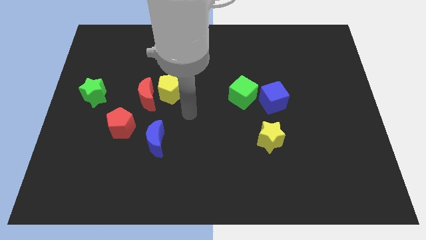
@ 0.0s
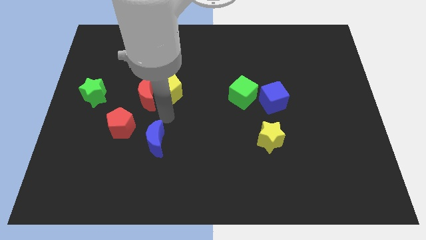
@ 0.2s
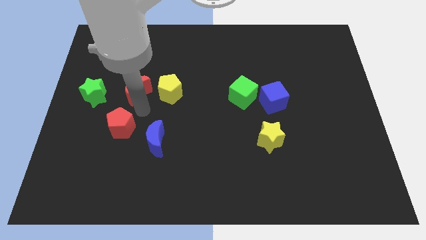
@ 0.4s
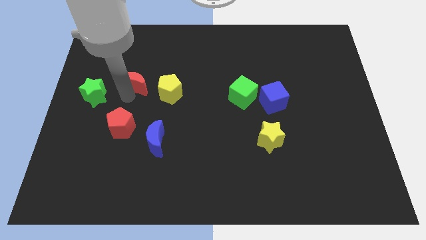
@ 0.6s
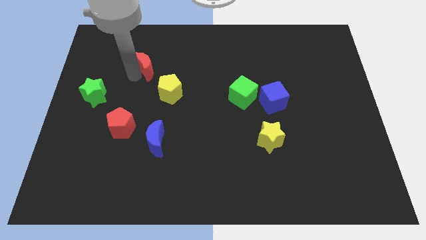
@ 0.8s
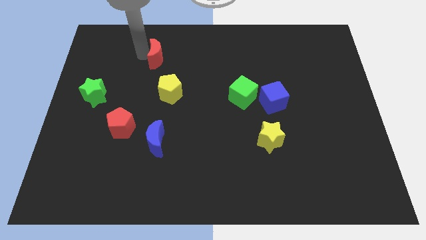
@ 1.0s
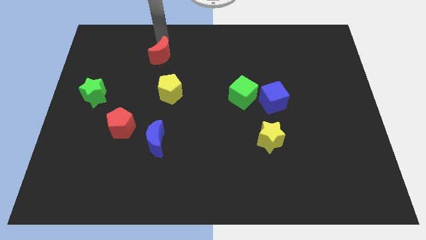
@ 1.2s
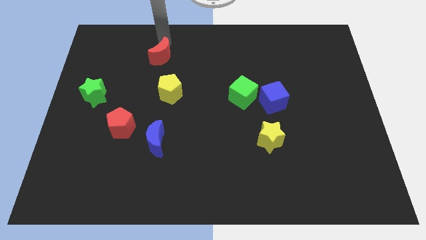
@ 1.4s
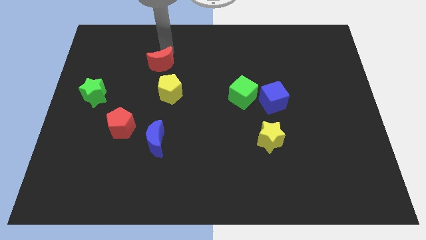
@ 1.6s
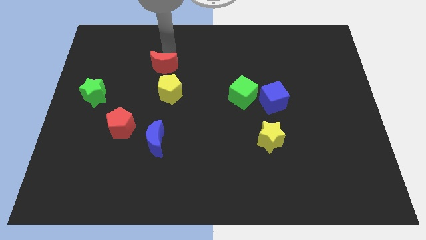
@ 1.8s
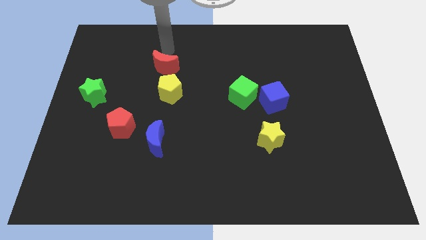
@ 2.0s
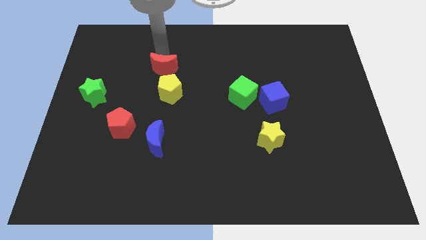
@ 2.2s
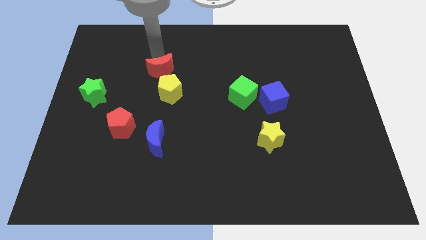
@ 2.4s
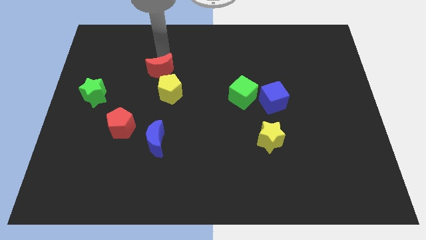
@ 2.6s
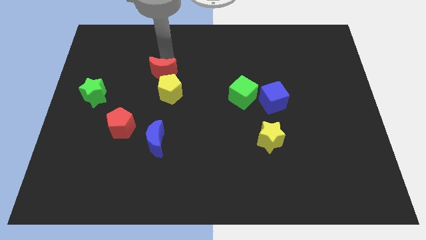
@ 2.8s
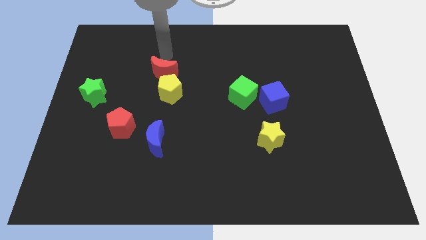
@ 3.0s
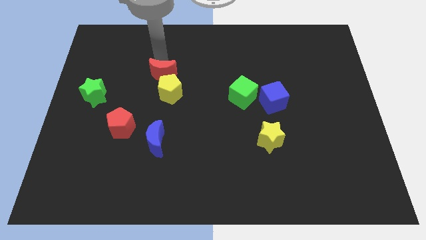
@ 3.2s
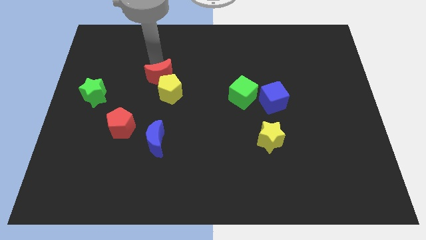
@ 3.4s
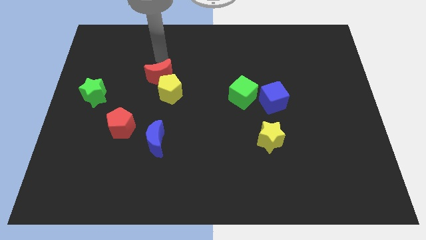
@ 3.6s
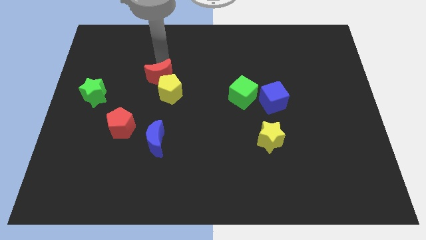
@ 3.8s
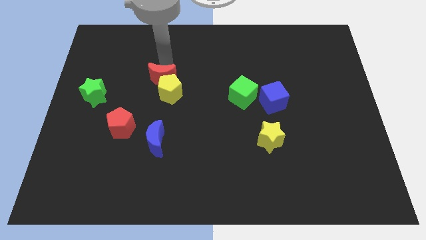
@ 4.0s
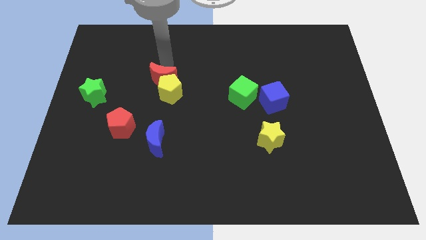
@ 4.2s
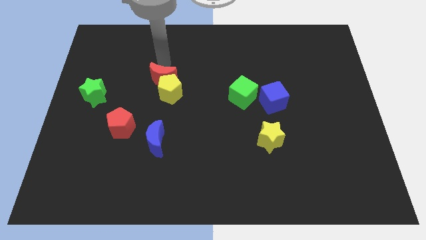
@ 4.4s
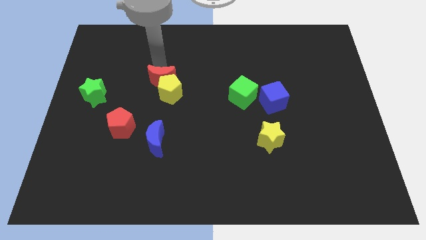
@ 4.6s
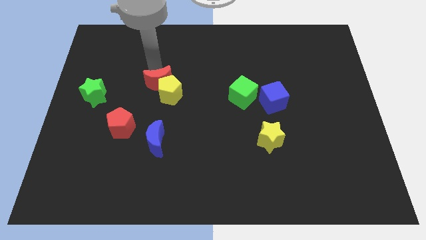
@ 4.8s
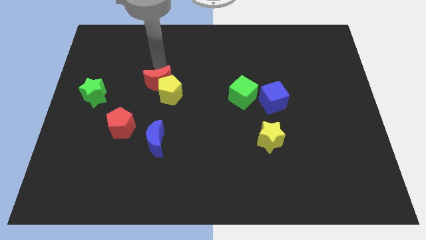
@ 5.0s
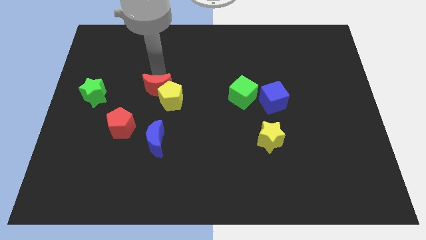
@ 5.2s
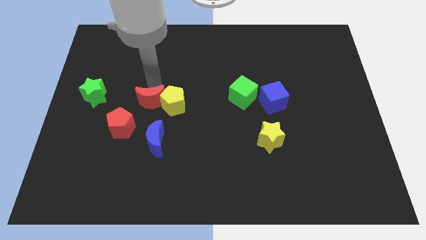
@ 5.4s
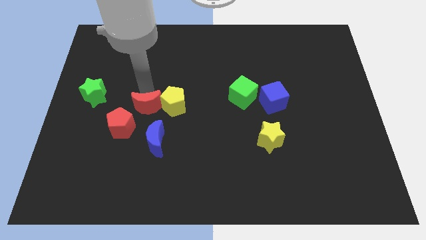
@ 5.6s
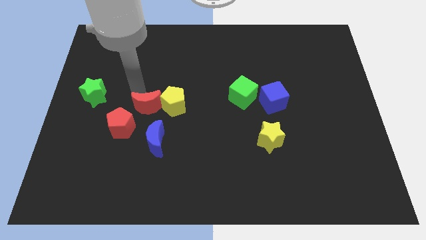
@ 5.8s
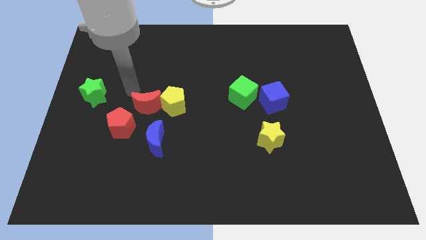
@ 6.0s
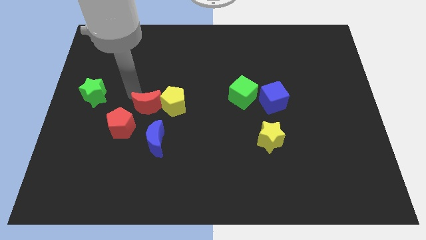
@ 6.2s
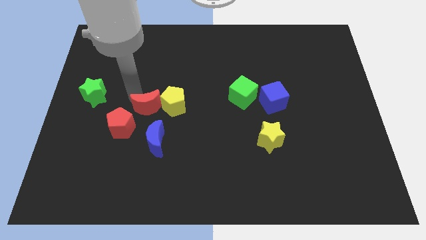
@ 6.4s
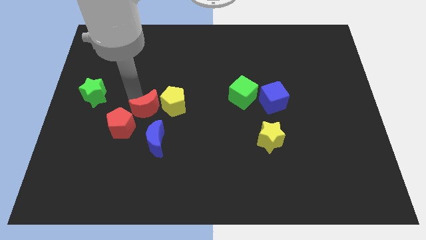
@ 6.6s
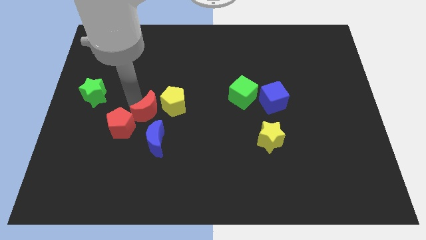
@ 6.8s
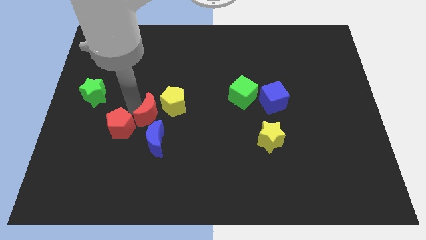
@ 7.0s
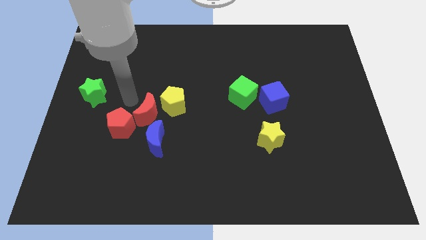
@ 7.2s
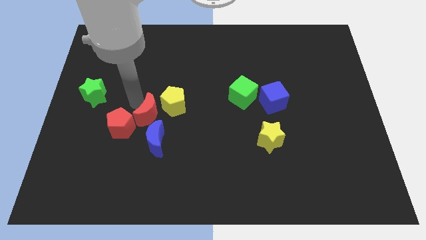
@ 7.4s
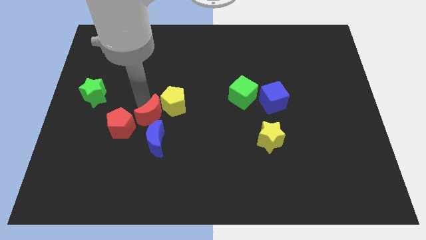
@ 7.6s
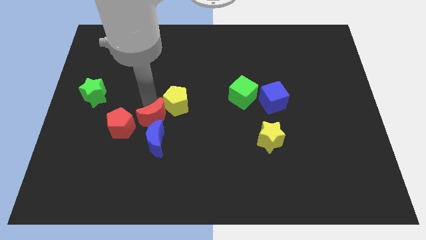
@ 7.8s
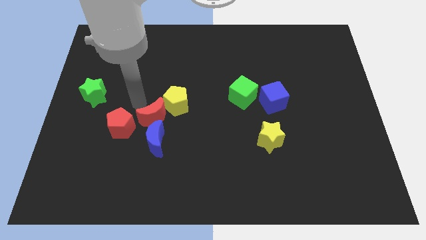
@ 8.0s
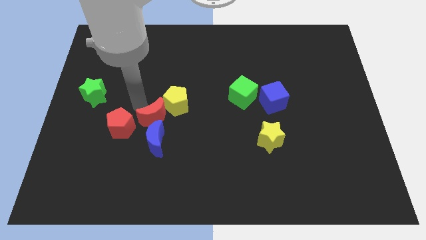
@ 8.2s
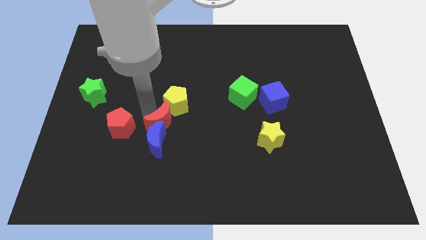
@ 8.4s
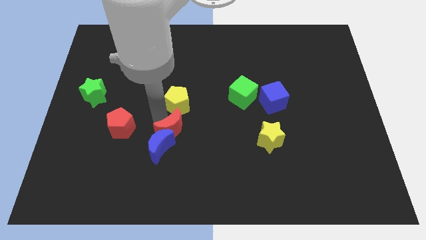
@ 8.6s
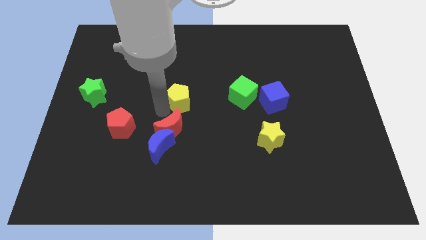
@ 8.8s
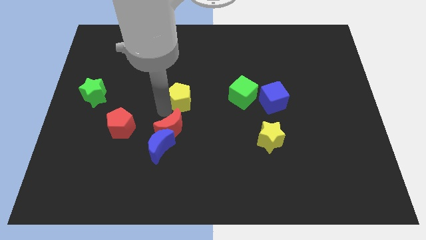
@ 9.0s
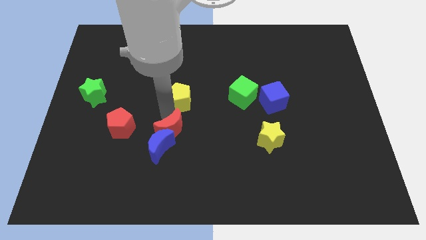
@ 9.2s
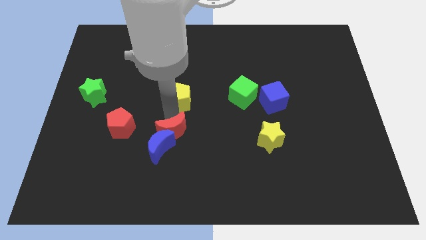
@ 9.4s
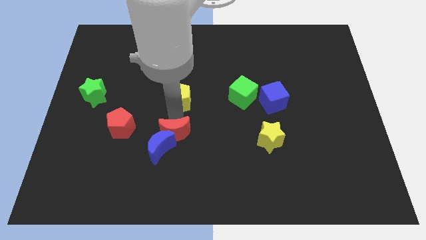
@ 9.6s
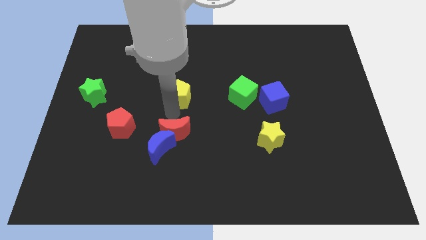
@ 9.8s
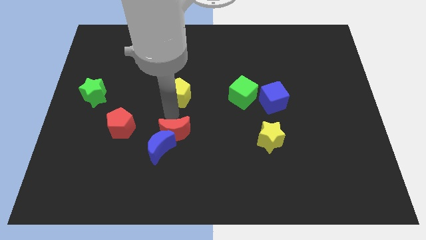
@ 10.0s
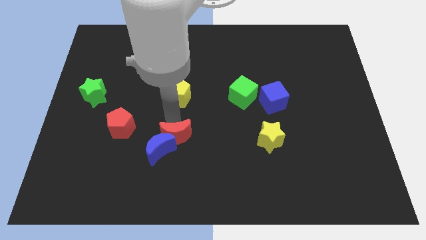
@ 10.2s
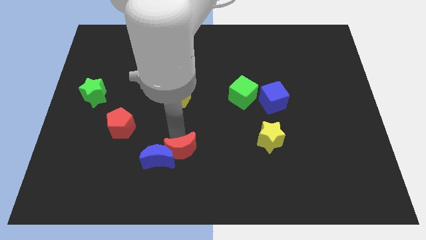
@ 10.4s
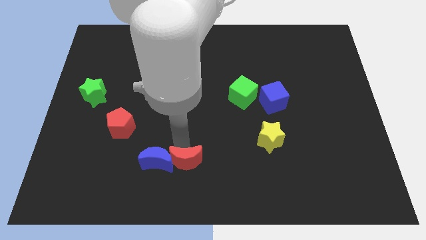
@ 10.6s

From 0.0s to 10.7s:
move the red moon to the bottom side

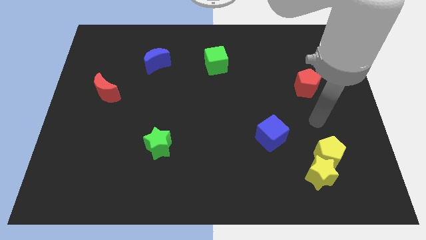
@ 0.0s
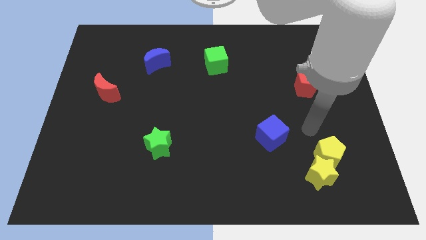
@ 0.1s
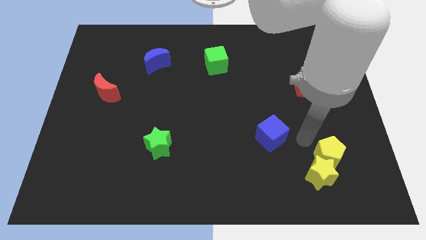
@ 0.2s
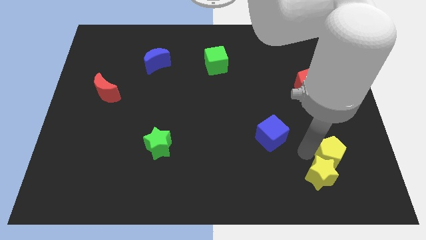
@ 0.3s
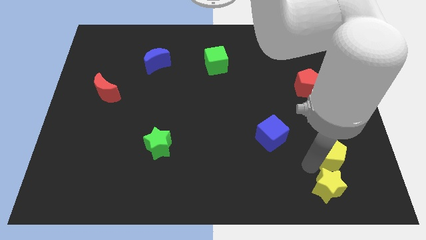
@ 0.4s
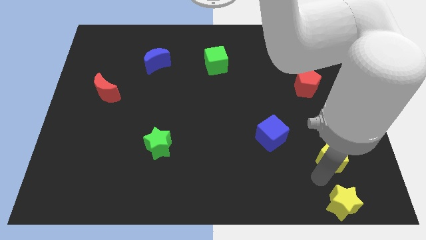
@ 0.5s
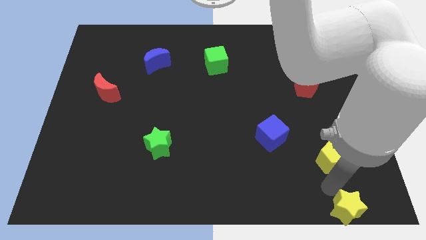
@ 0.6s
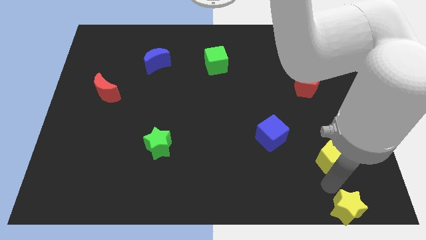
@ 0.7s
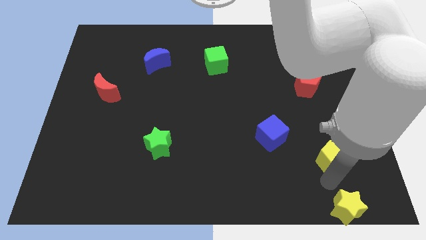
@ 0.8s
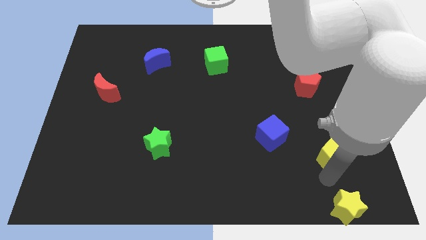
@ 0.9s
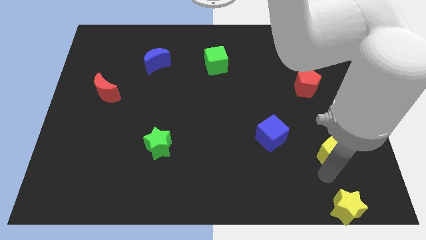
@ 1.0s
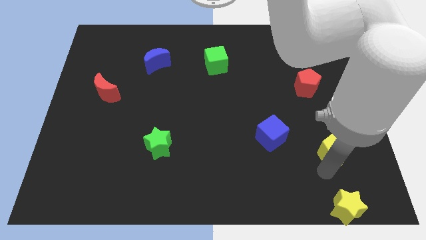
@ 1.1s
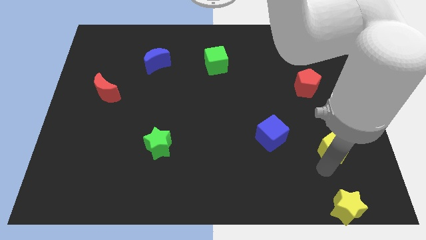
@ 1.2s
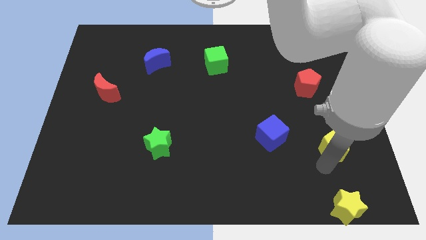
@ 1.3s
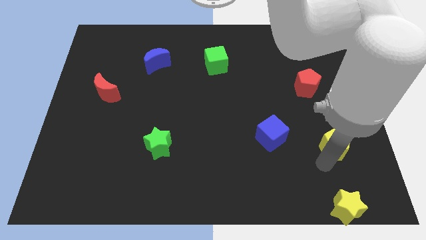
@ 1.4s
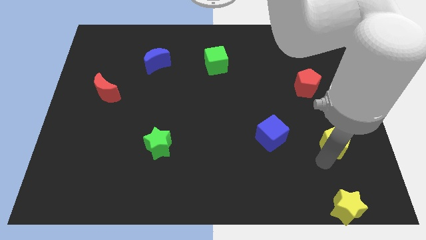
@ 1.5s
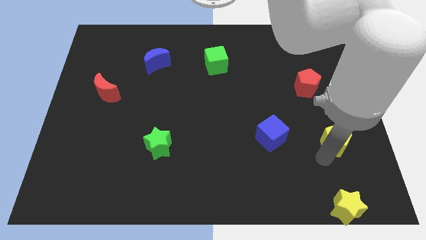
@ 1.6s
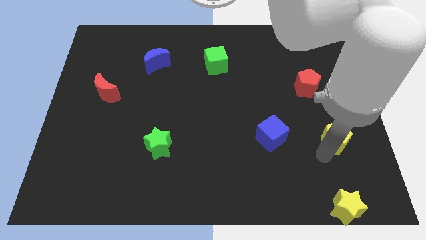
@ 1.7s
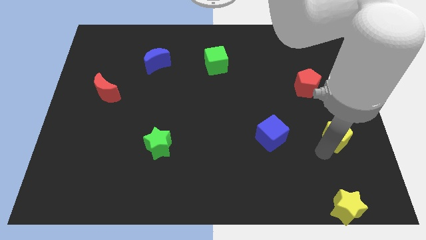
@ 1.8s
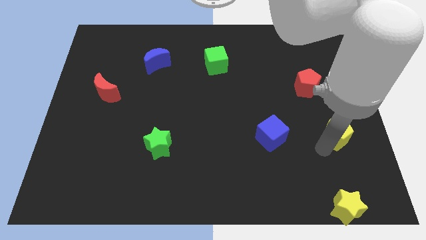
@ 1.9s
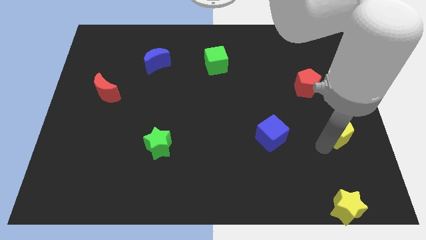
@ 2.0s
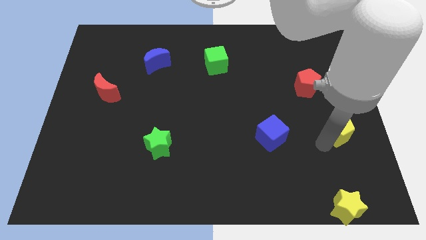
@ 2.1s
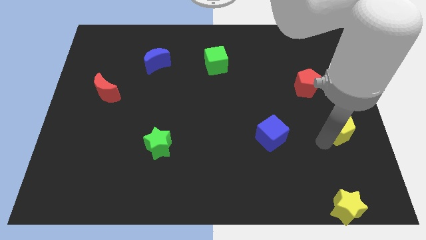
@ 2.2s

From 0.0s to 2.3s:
push the yellow pentagon to the center right

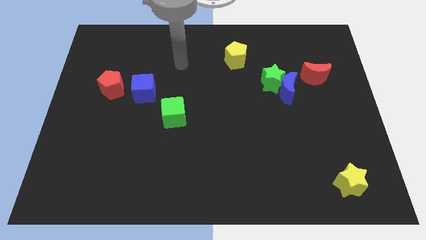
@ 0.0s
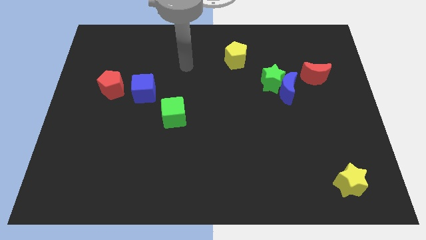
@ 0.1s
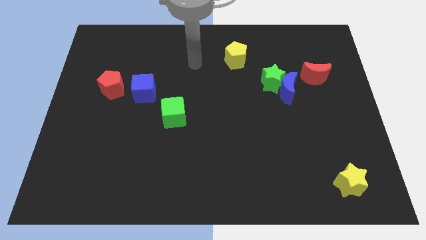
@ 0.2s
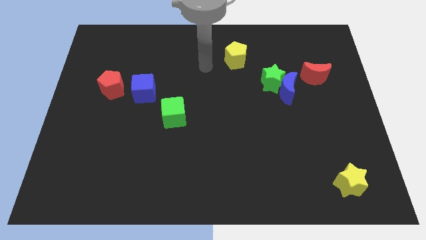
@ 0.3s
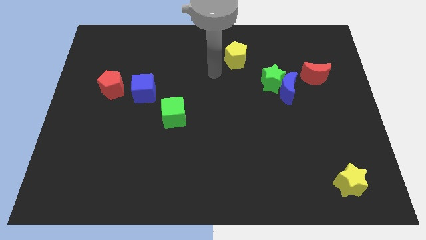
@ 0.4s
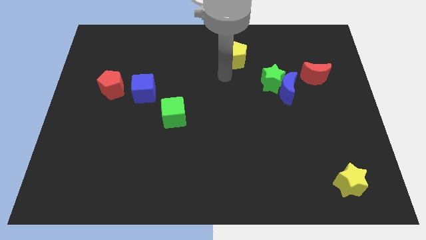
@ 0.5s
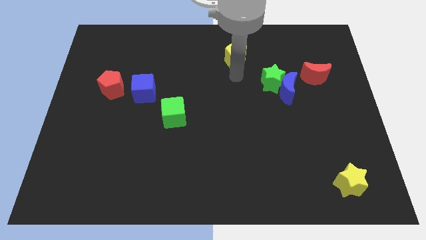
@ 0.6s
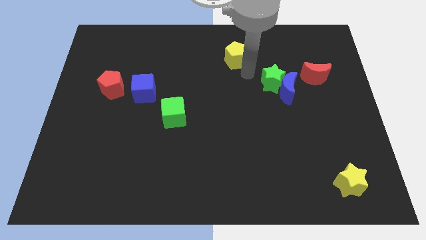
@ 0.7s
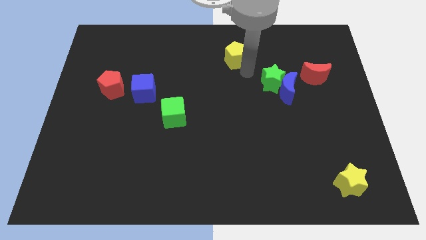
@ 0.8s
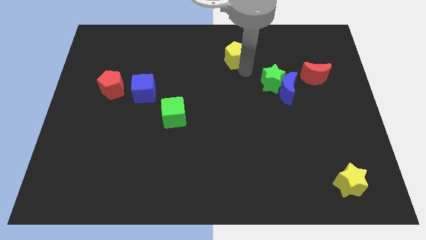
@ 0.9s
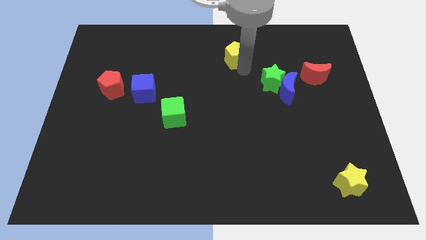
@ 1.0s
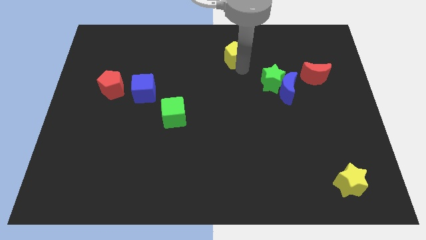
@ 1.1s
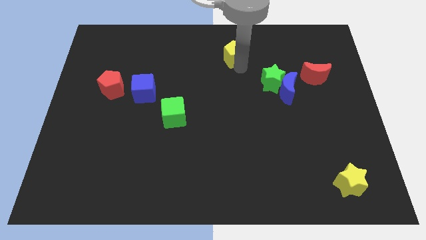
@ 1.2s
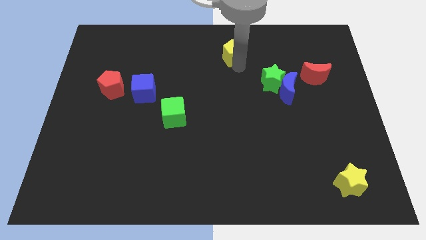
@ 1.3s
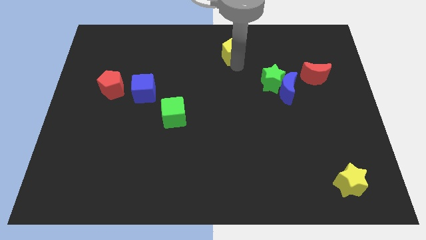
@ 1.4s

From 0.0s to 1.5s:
push the yellow pentagon to the top side
